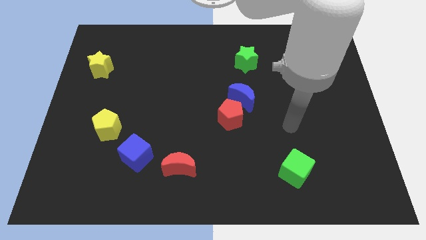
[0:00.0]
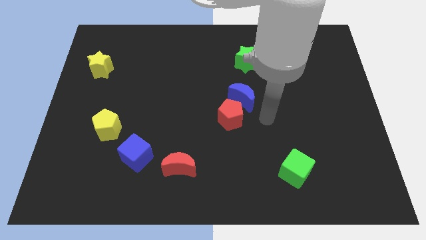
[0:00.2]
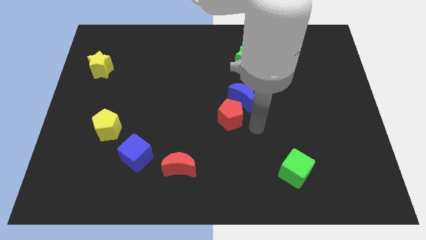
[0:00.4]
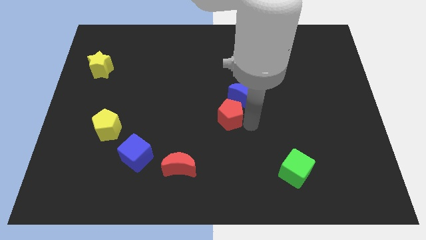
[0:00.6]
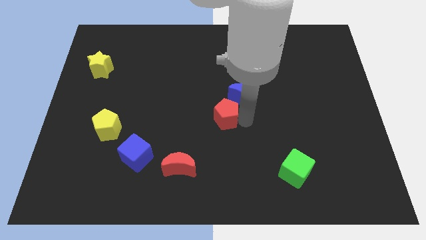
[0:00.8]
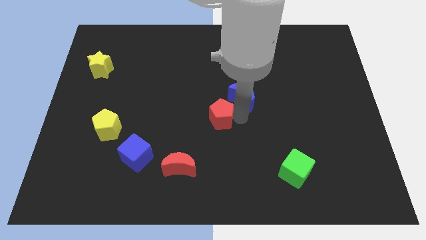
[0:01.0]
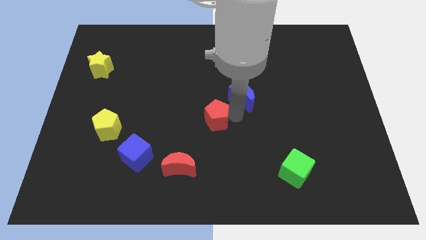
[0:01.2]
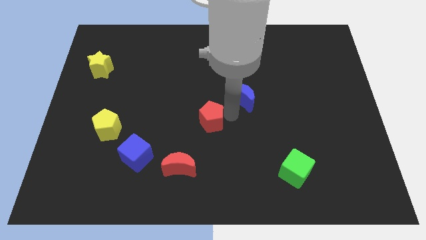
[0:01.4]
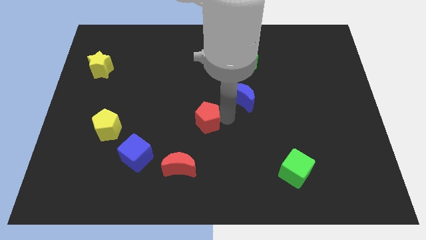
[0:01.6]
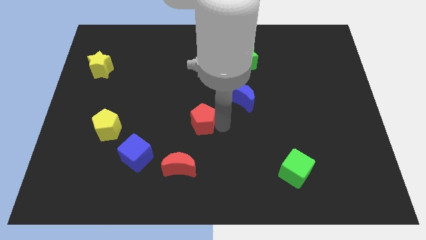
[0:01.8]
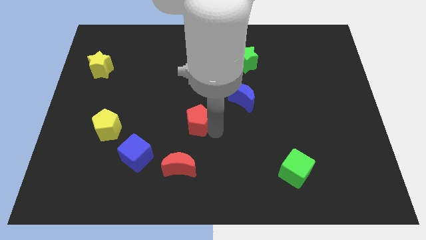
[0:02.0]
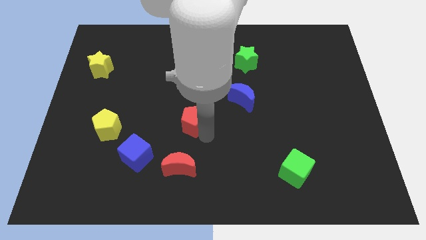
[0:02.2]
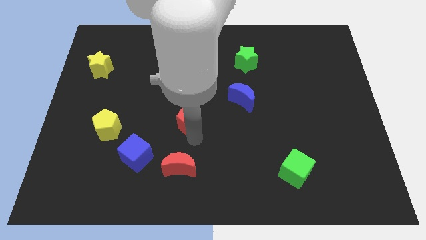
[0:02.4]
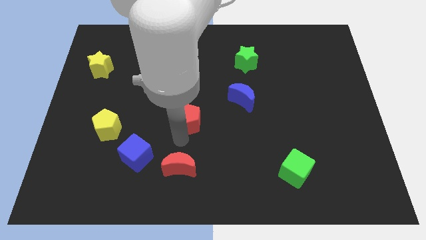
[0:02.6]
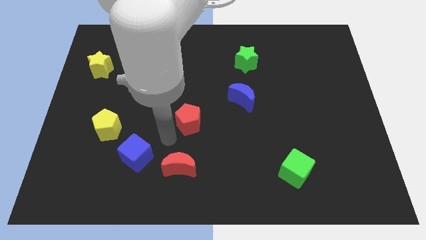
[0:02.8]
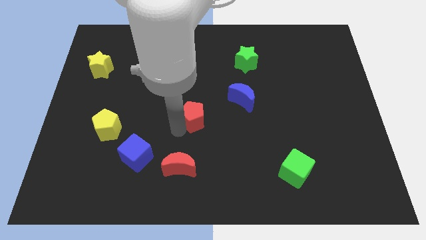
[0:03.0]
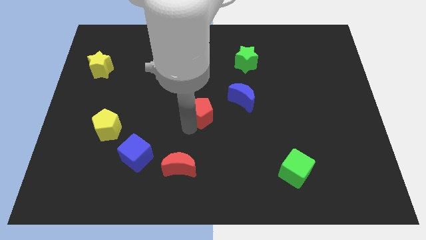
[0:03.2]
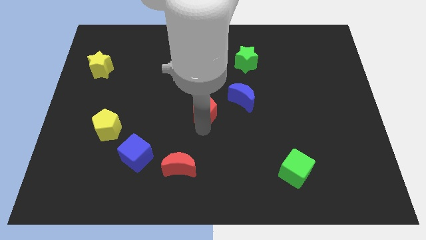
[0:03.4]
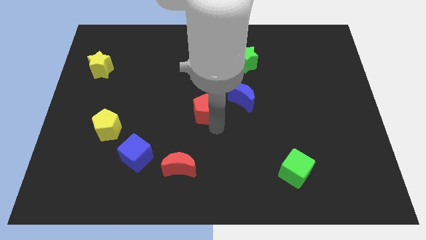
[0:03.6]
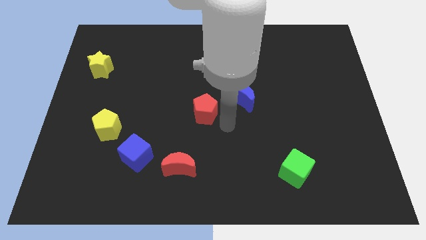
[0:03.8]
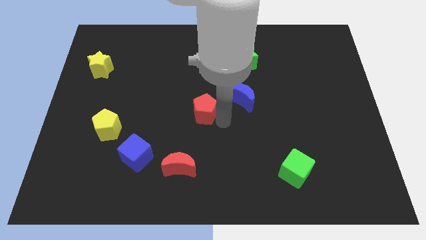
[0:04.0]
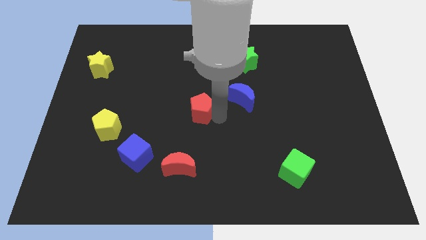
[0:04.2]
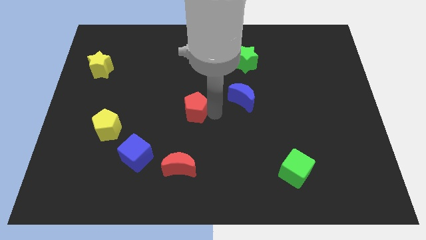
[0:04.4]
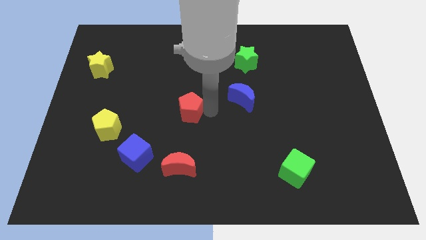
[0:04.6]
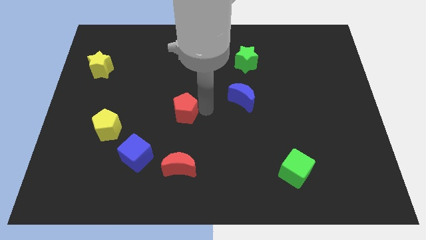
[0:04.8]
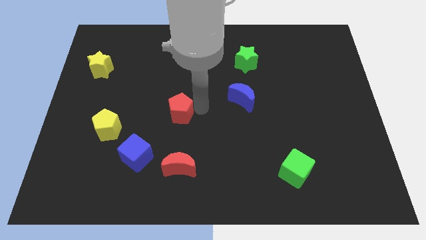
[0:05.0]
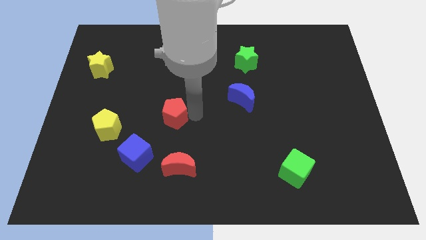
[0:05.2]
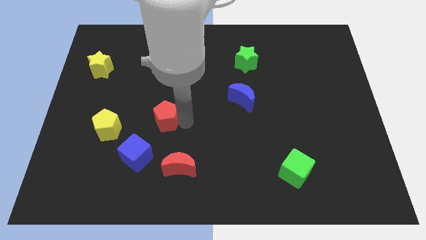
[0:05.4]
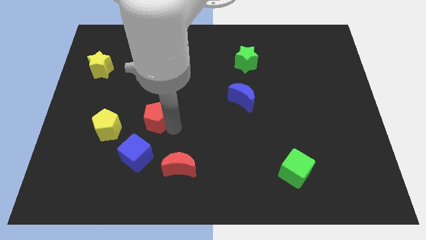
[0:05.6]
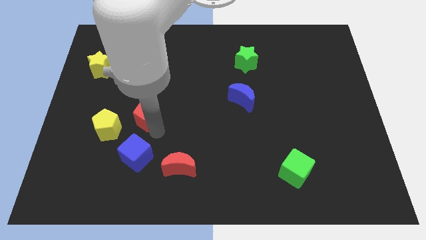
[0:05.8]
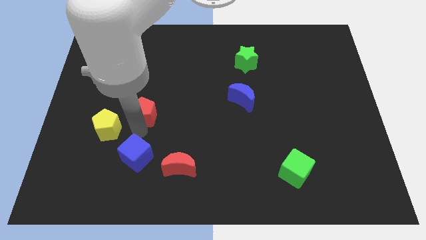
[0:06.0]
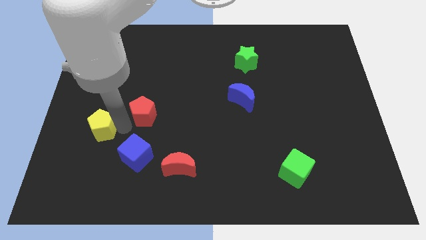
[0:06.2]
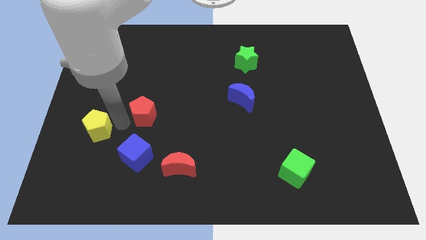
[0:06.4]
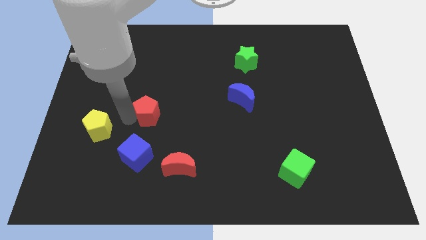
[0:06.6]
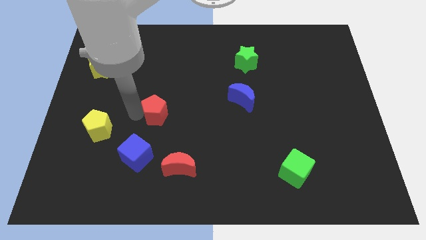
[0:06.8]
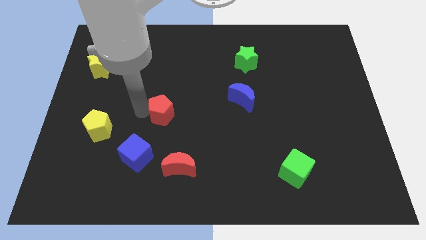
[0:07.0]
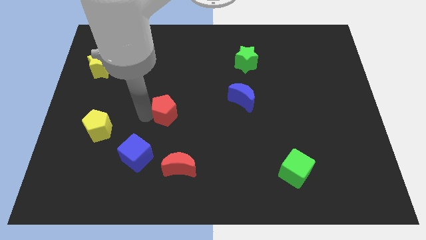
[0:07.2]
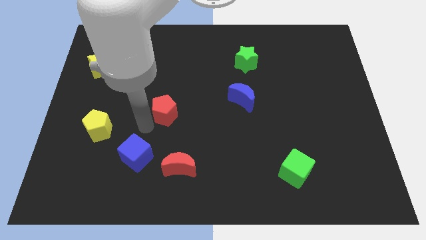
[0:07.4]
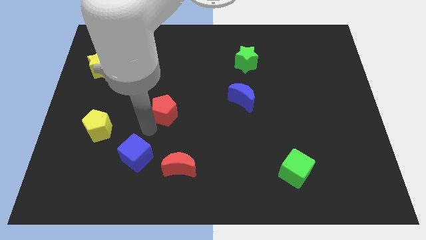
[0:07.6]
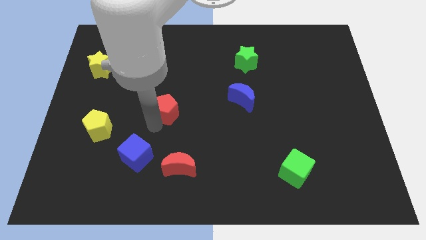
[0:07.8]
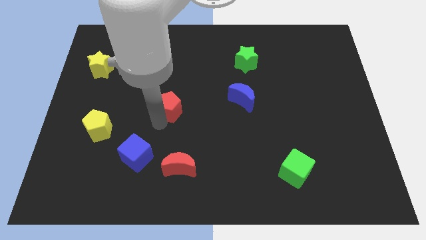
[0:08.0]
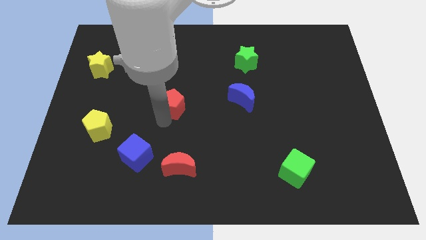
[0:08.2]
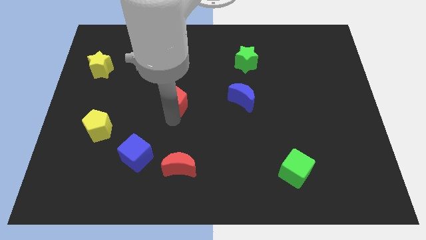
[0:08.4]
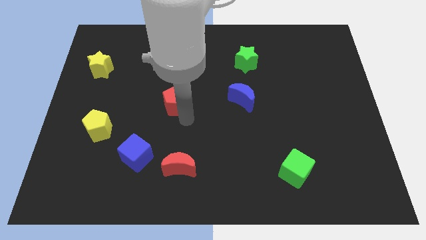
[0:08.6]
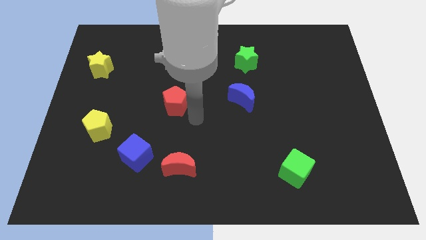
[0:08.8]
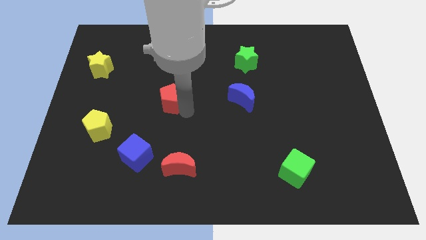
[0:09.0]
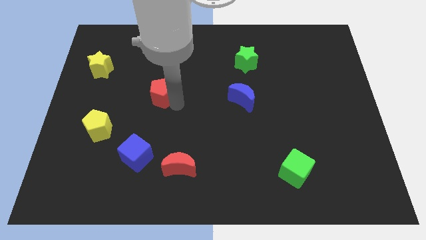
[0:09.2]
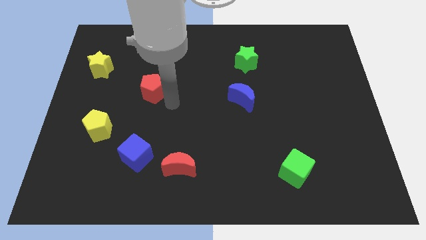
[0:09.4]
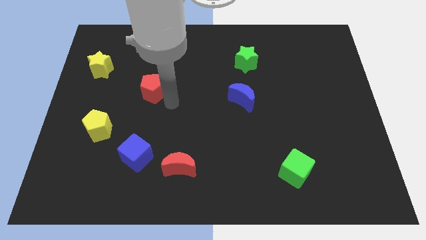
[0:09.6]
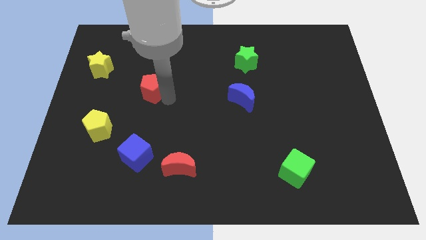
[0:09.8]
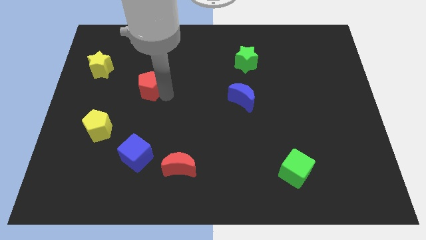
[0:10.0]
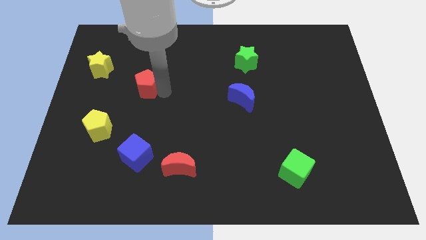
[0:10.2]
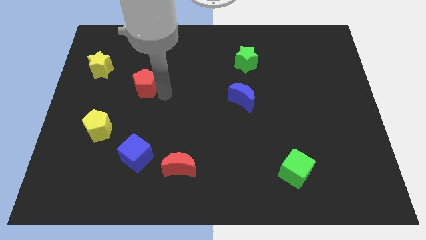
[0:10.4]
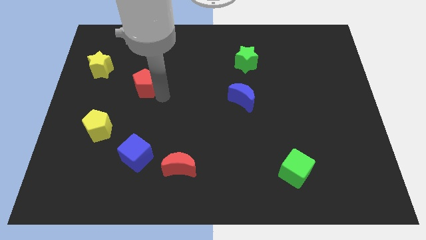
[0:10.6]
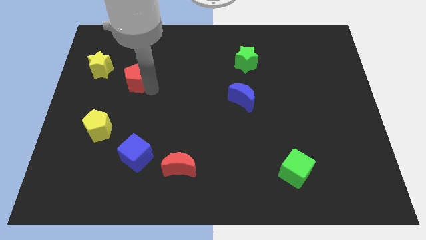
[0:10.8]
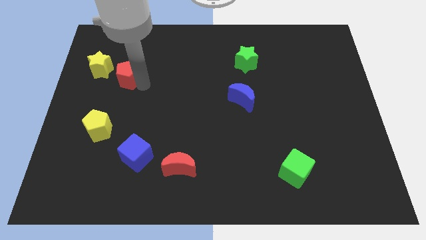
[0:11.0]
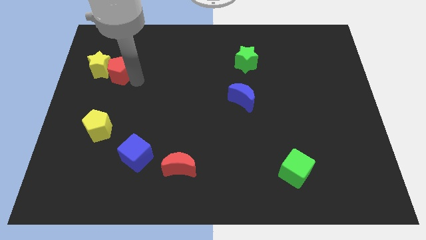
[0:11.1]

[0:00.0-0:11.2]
push the red pentagon to the yellow star

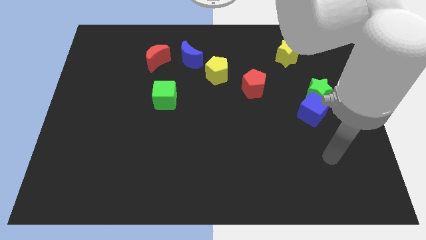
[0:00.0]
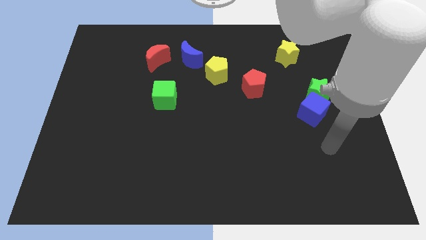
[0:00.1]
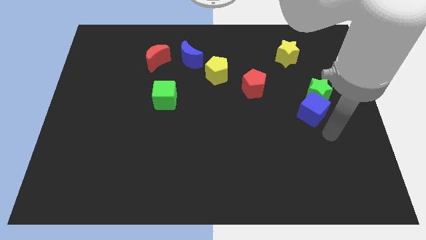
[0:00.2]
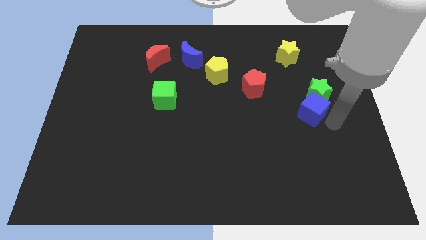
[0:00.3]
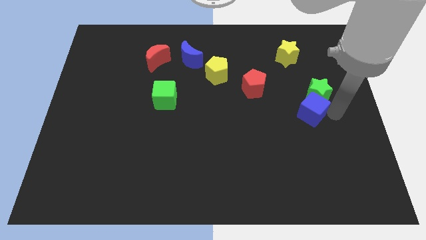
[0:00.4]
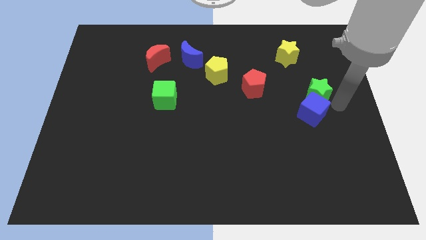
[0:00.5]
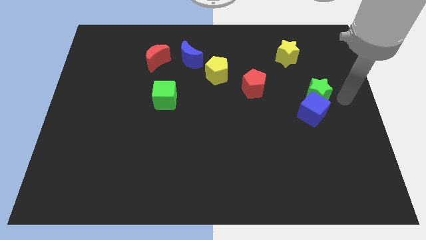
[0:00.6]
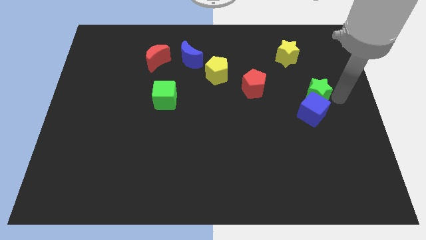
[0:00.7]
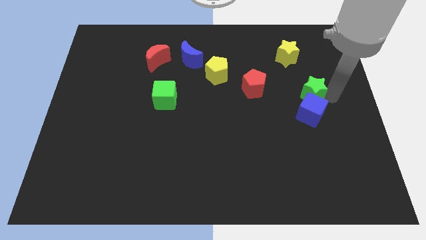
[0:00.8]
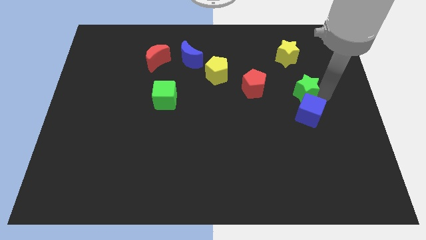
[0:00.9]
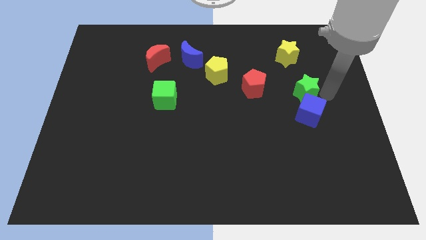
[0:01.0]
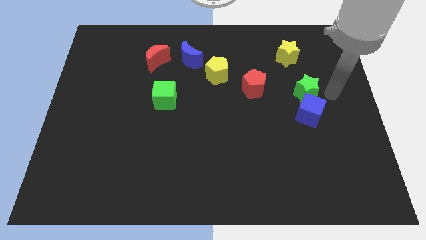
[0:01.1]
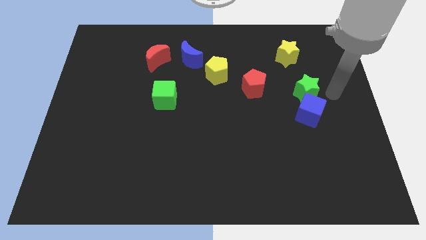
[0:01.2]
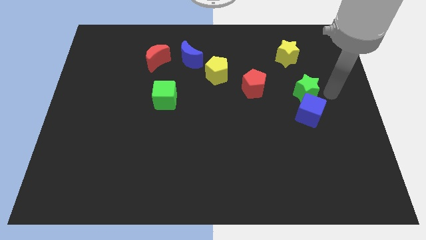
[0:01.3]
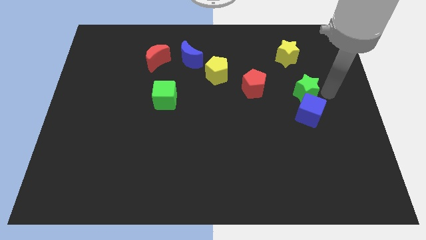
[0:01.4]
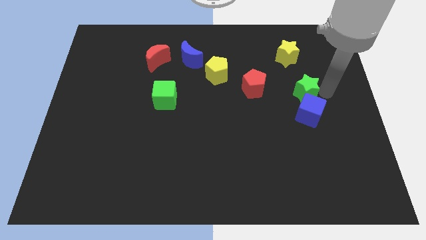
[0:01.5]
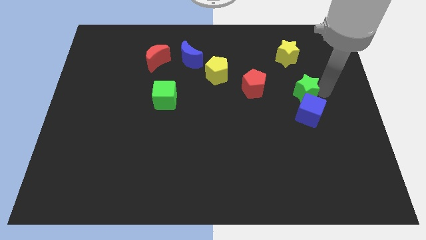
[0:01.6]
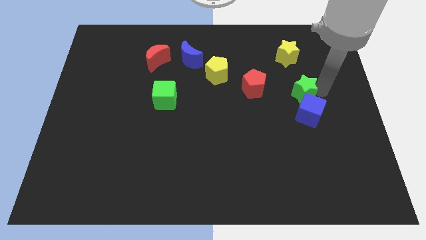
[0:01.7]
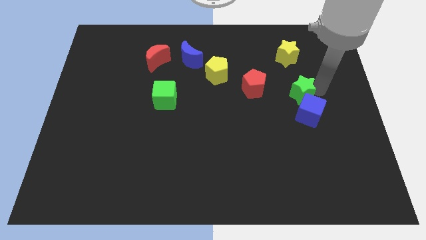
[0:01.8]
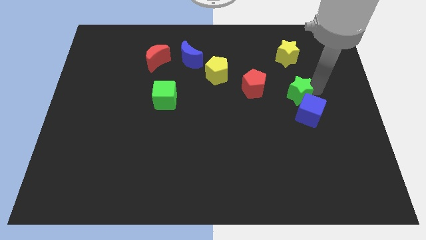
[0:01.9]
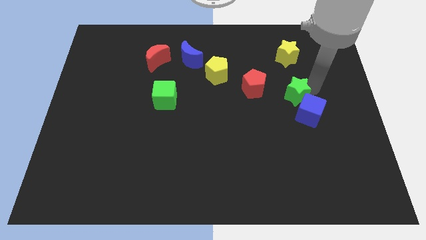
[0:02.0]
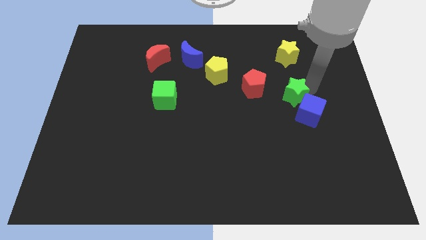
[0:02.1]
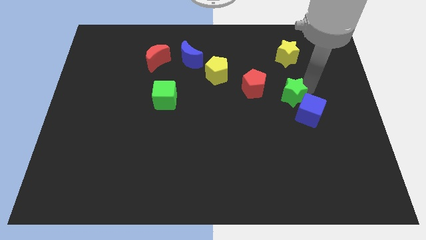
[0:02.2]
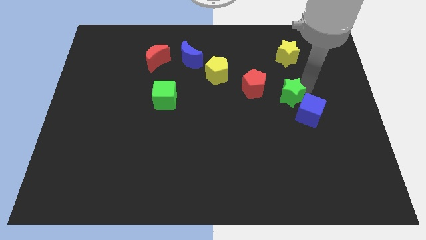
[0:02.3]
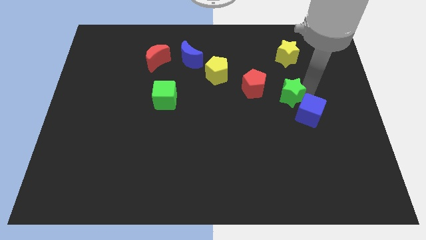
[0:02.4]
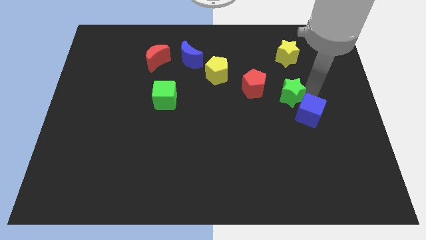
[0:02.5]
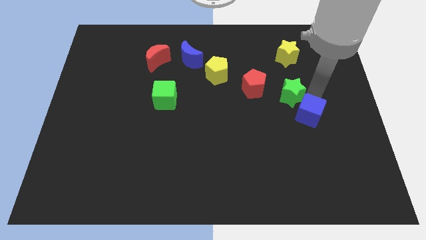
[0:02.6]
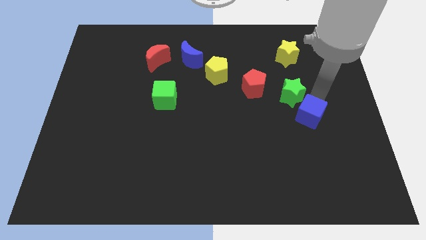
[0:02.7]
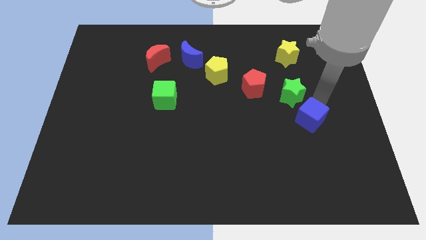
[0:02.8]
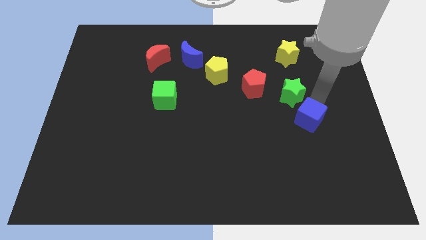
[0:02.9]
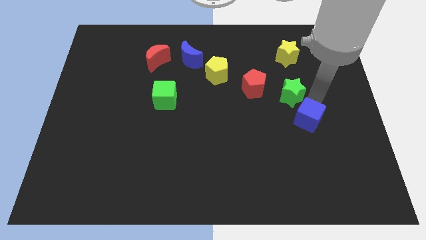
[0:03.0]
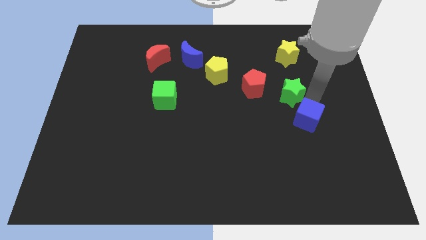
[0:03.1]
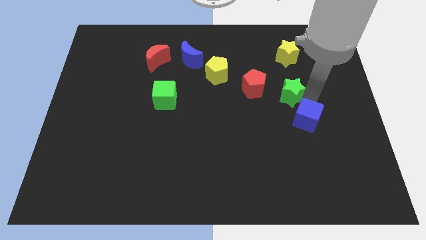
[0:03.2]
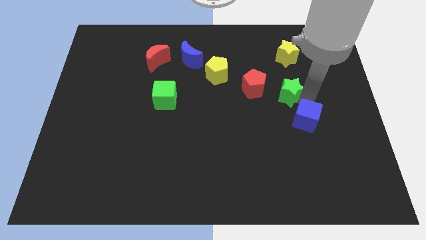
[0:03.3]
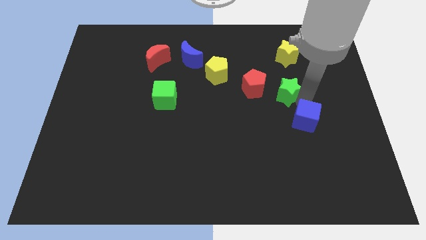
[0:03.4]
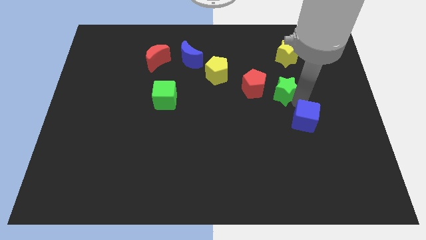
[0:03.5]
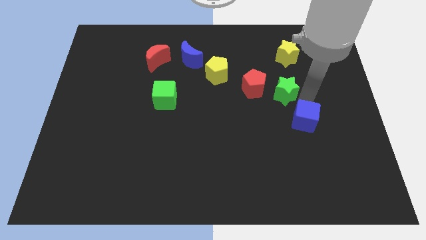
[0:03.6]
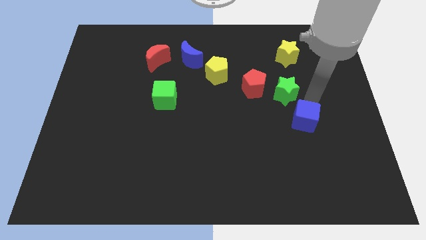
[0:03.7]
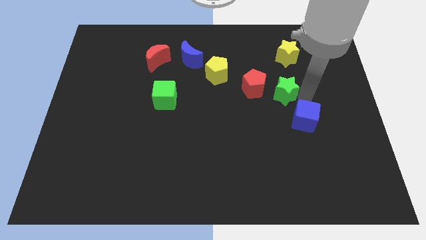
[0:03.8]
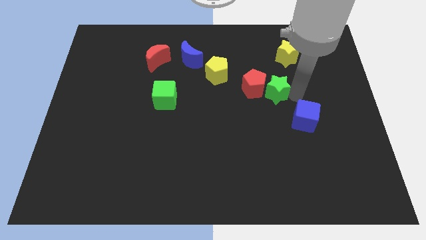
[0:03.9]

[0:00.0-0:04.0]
slide the green star to the red pentagon
